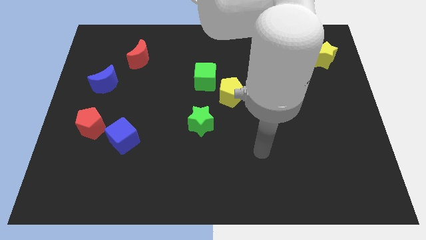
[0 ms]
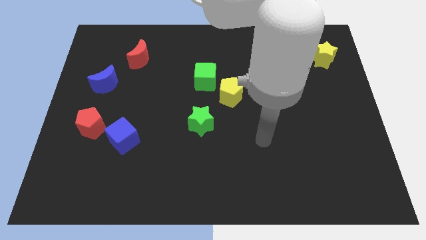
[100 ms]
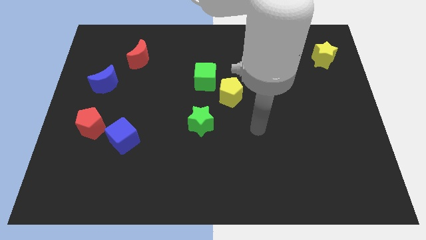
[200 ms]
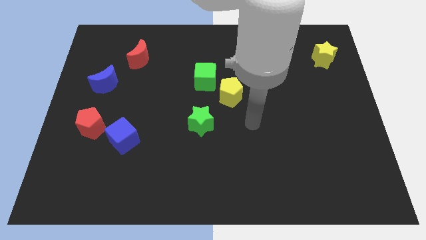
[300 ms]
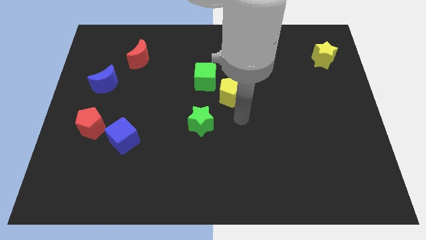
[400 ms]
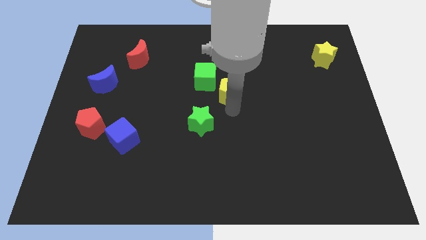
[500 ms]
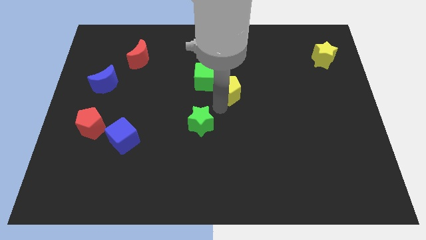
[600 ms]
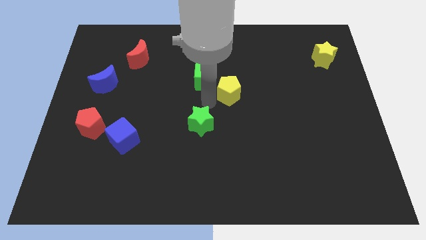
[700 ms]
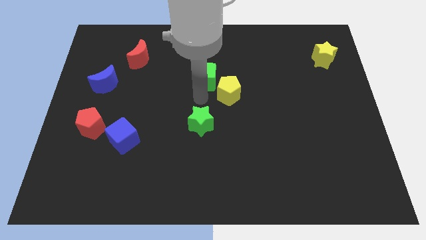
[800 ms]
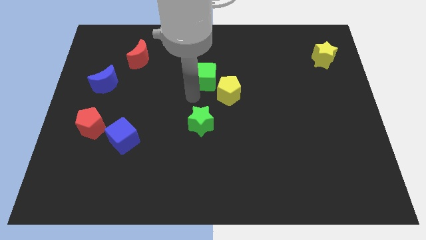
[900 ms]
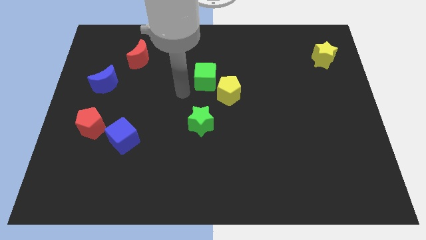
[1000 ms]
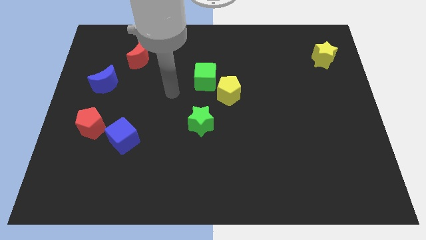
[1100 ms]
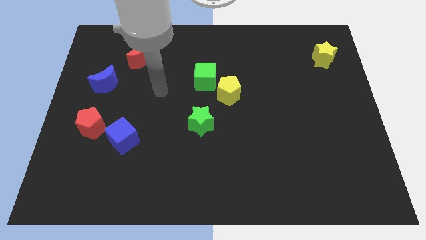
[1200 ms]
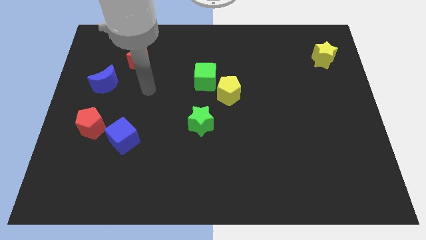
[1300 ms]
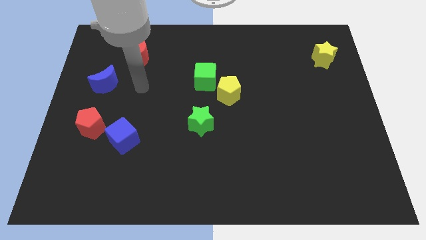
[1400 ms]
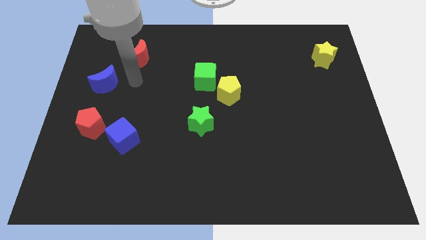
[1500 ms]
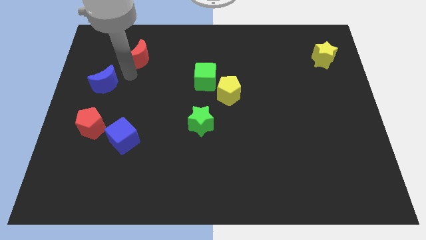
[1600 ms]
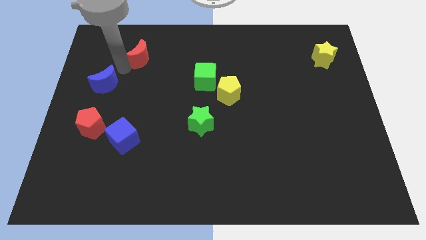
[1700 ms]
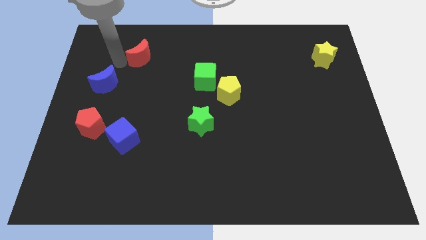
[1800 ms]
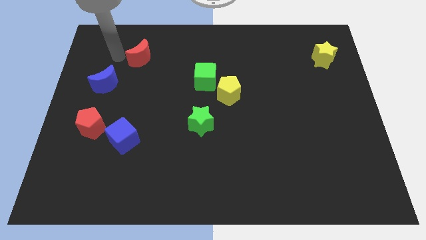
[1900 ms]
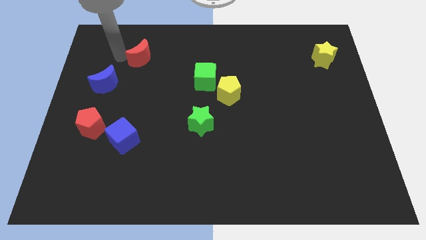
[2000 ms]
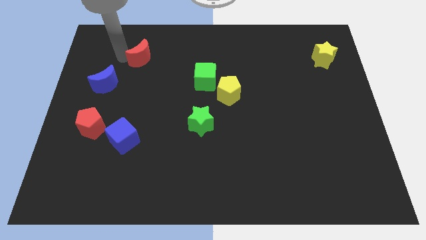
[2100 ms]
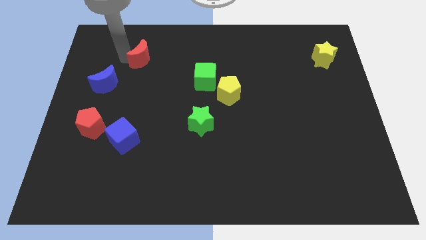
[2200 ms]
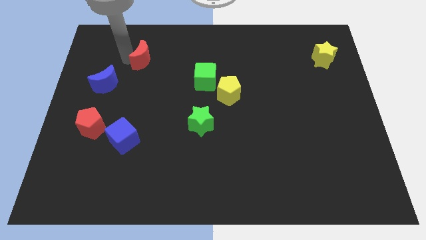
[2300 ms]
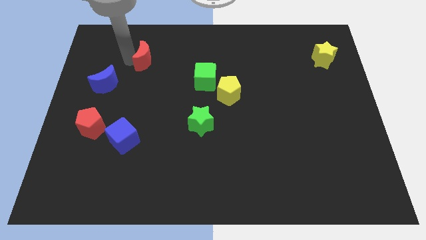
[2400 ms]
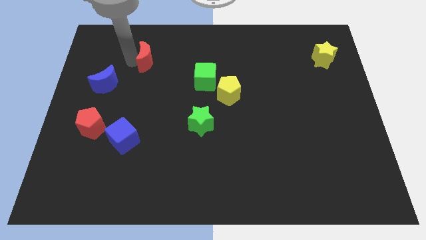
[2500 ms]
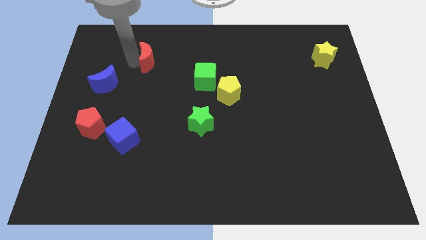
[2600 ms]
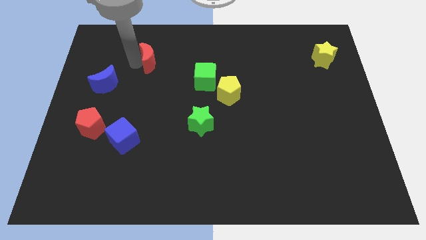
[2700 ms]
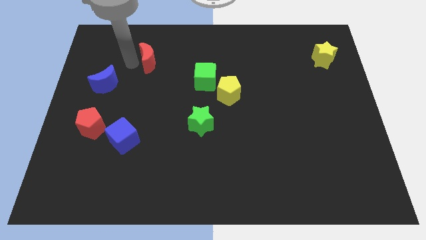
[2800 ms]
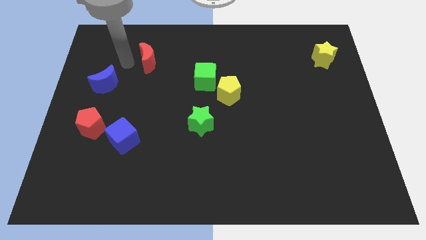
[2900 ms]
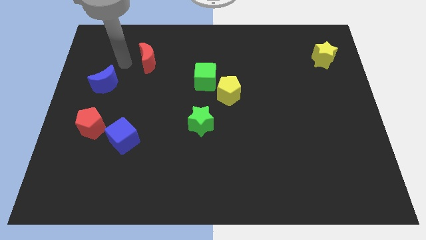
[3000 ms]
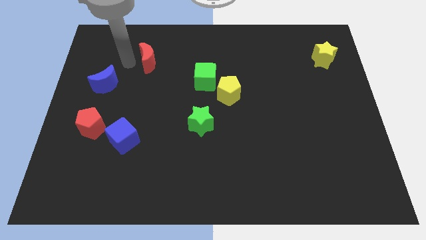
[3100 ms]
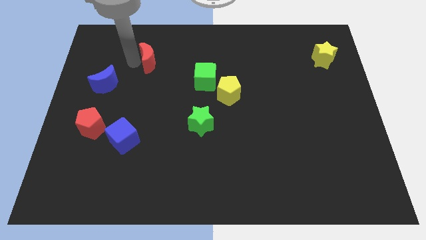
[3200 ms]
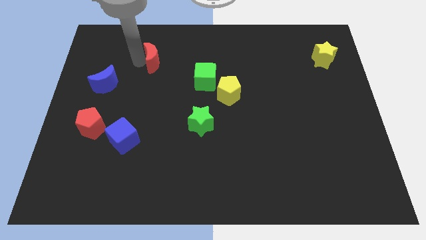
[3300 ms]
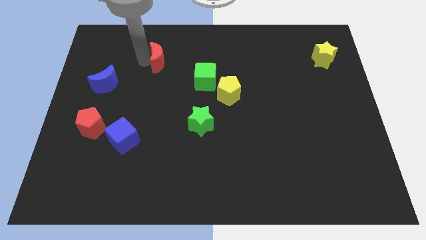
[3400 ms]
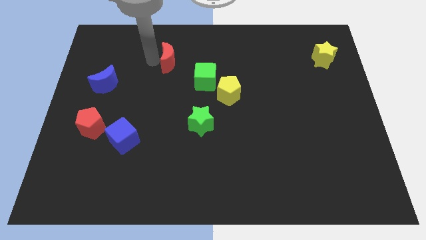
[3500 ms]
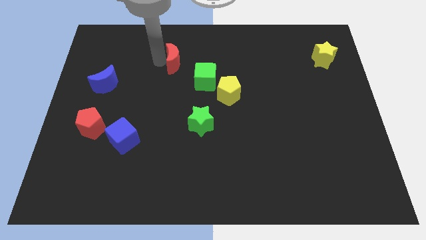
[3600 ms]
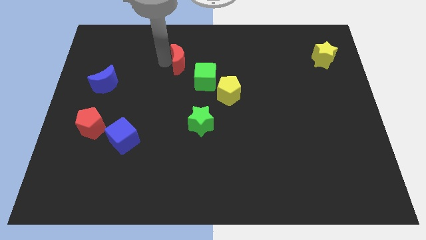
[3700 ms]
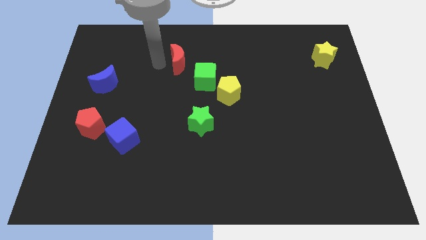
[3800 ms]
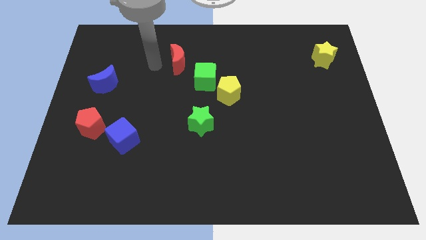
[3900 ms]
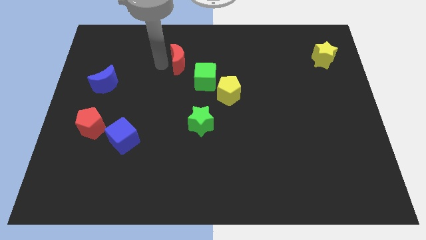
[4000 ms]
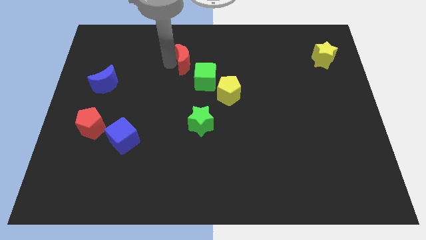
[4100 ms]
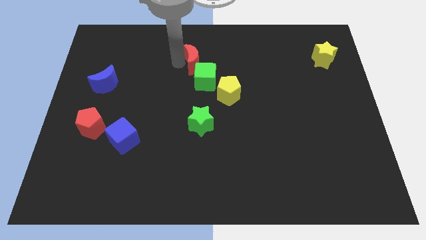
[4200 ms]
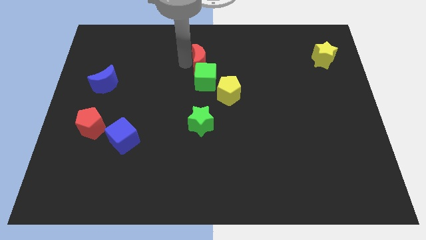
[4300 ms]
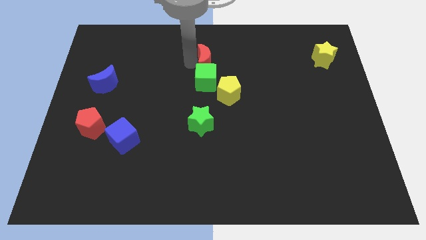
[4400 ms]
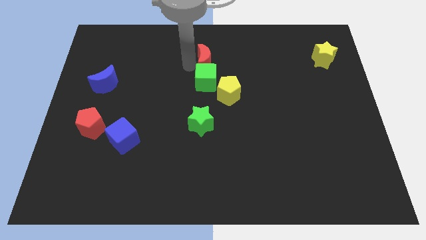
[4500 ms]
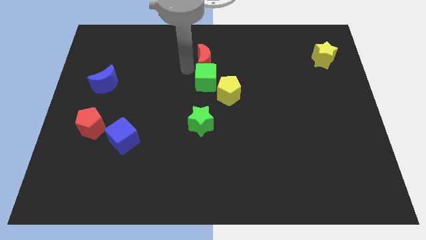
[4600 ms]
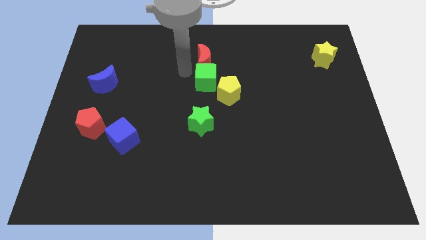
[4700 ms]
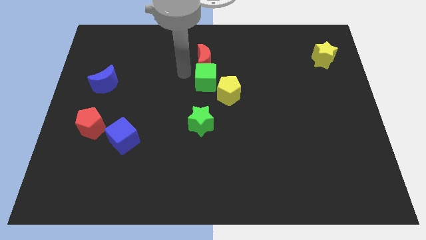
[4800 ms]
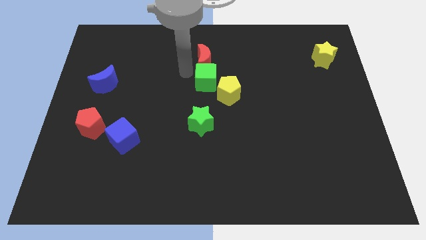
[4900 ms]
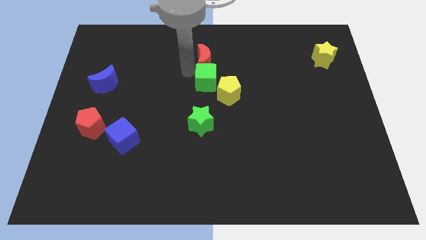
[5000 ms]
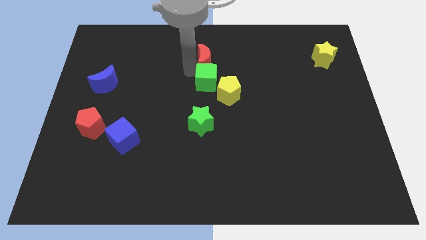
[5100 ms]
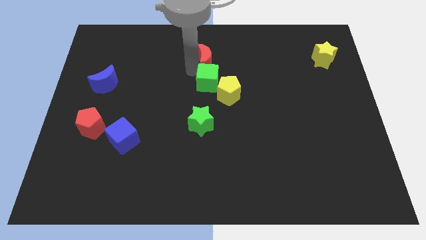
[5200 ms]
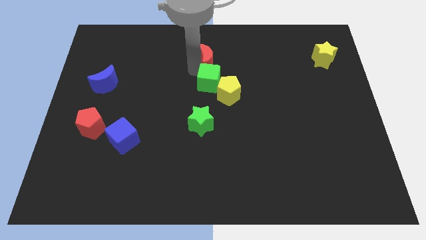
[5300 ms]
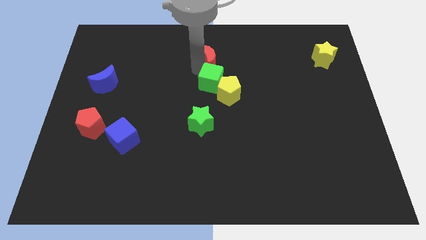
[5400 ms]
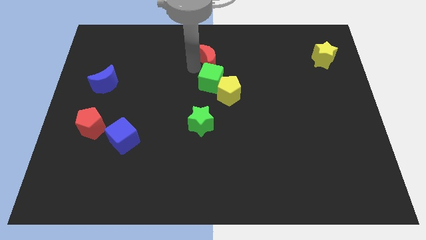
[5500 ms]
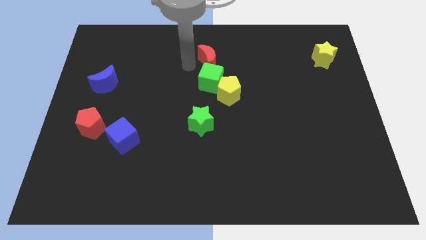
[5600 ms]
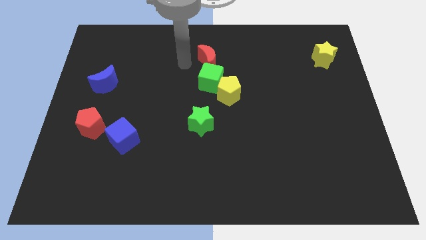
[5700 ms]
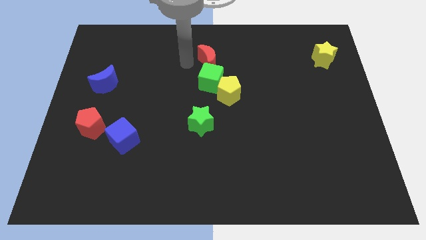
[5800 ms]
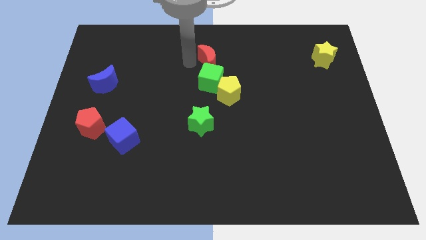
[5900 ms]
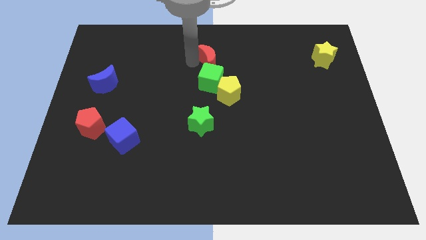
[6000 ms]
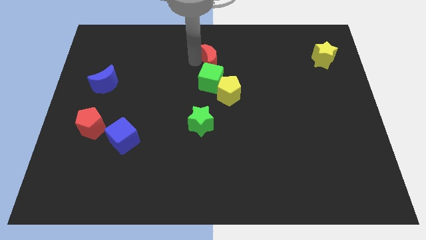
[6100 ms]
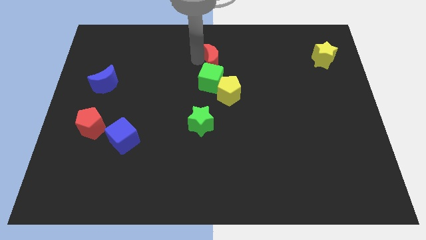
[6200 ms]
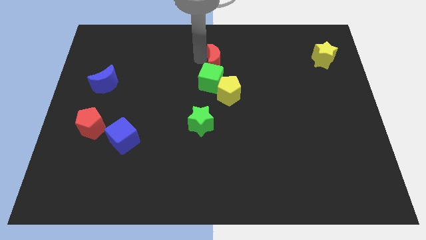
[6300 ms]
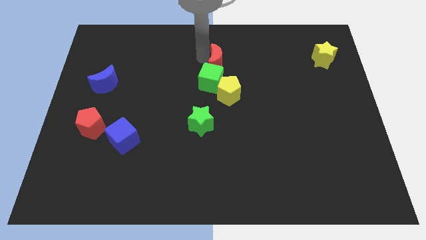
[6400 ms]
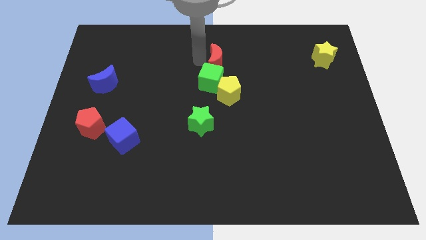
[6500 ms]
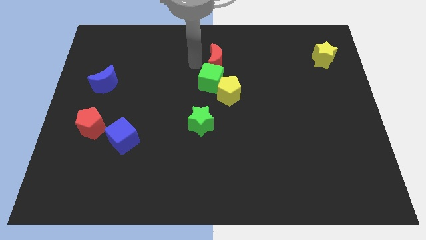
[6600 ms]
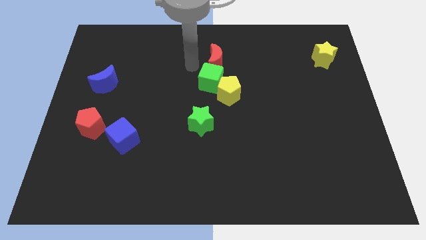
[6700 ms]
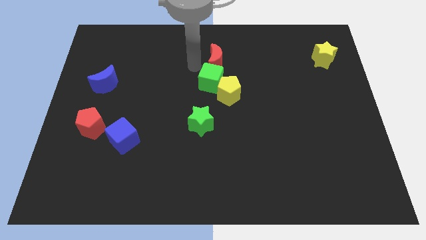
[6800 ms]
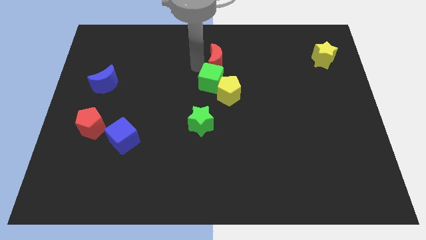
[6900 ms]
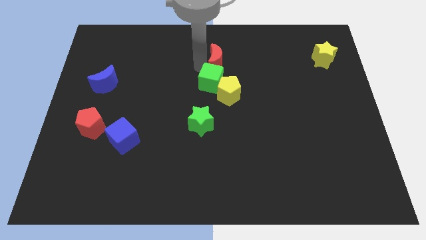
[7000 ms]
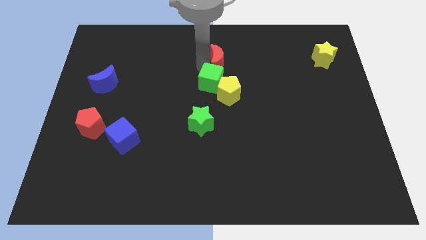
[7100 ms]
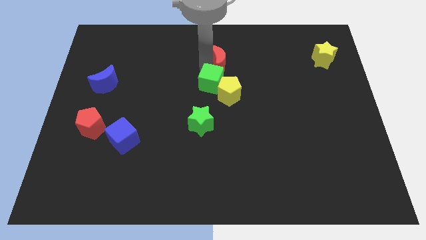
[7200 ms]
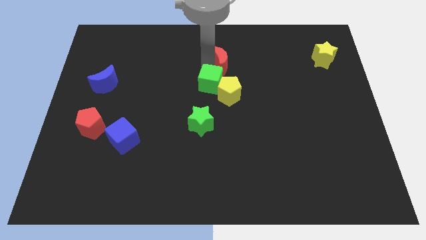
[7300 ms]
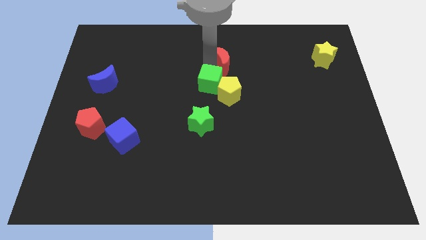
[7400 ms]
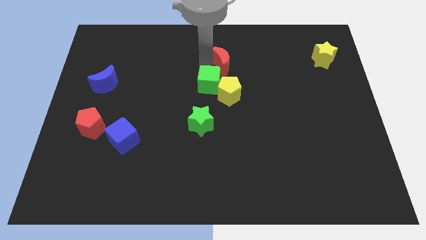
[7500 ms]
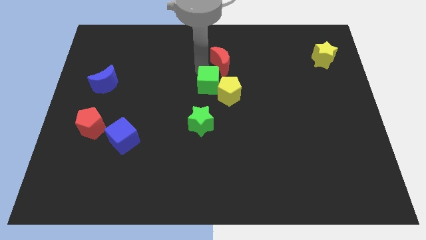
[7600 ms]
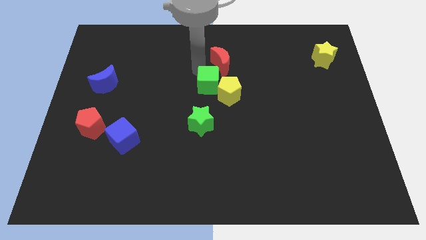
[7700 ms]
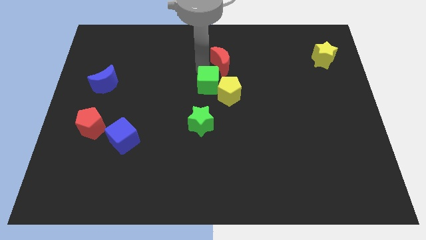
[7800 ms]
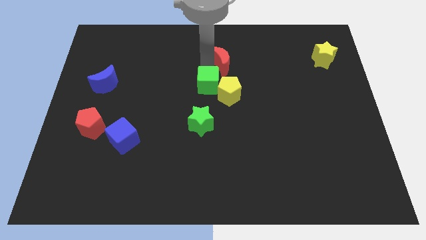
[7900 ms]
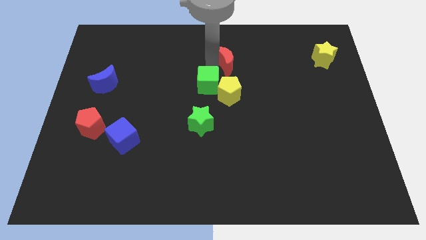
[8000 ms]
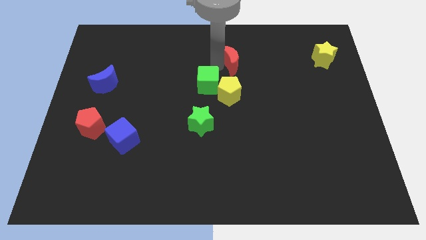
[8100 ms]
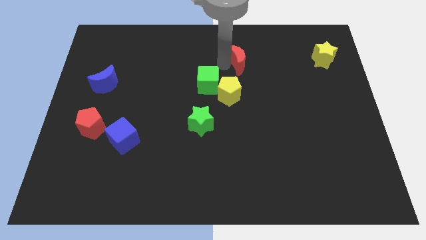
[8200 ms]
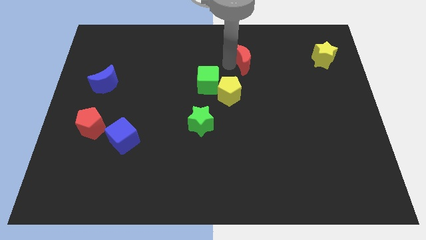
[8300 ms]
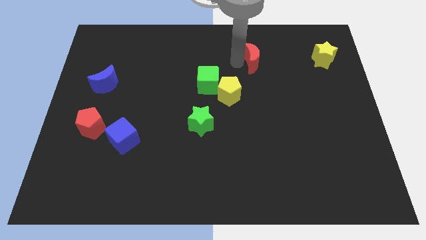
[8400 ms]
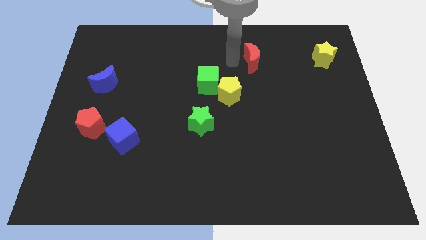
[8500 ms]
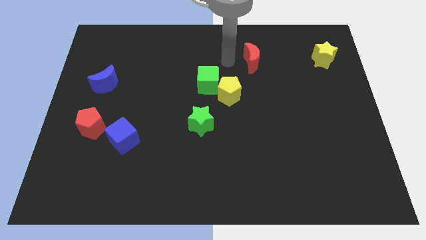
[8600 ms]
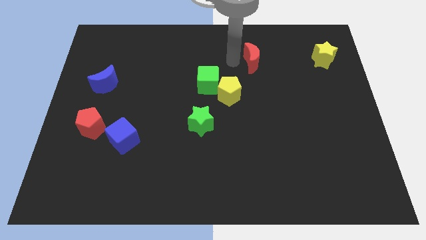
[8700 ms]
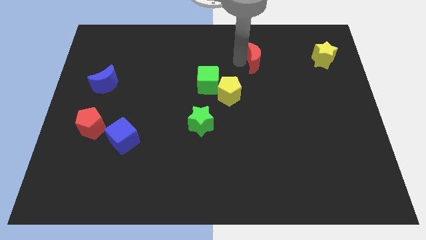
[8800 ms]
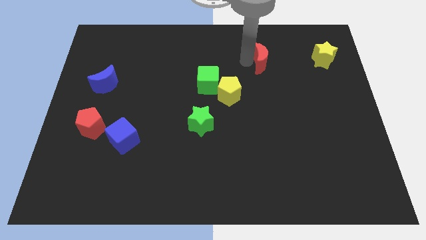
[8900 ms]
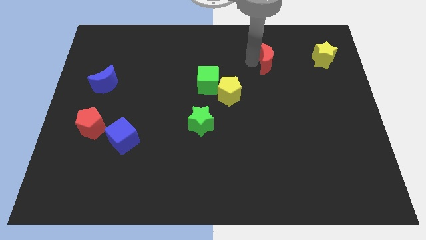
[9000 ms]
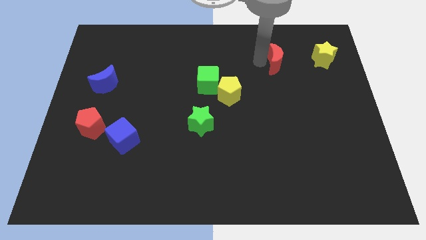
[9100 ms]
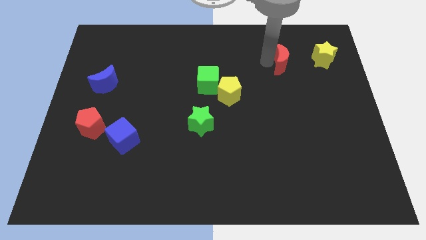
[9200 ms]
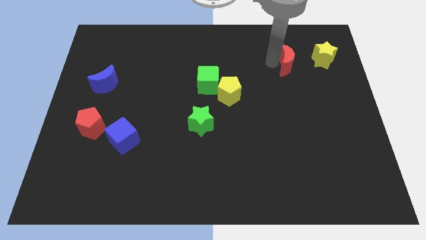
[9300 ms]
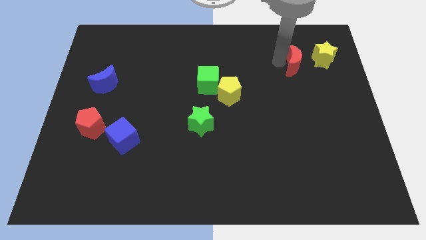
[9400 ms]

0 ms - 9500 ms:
put the red moon to the bottom left of the yellow star
